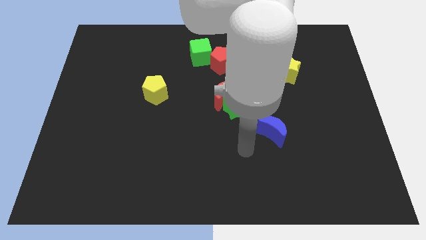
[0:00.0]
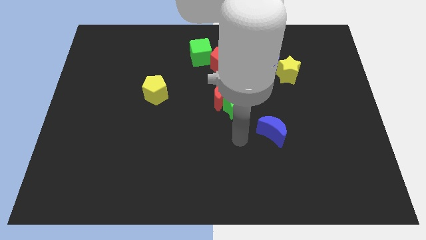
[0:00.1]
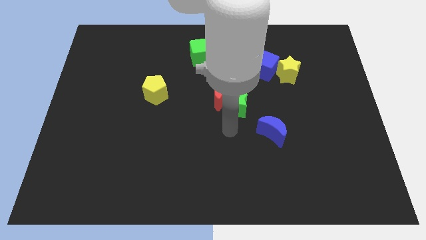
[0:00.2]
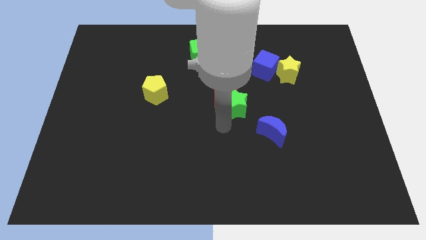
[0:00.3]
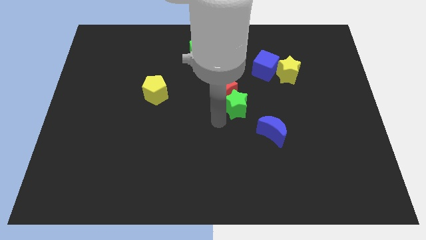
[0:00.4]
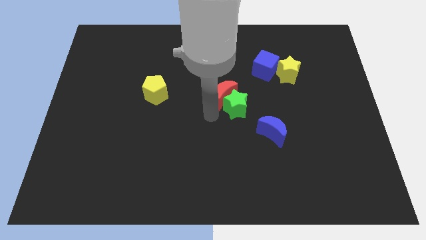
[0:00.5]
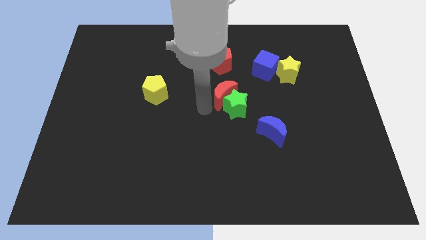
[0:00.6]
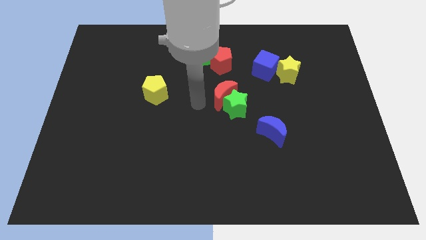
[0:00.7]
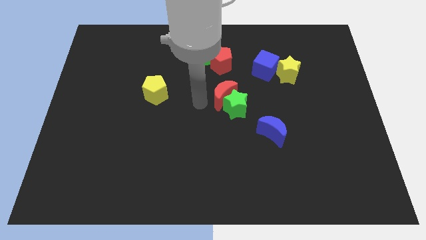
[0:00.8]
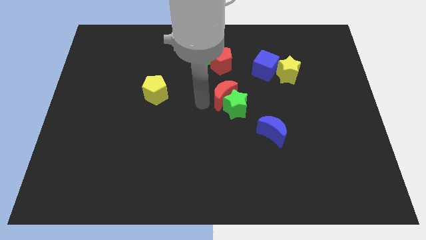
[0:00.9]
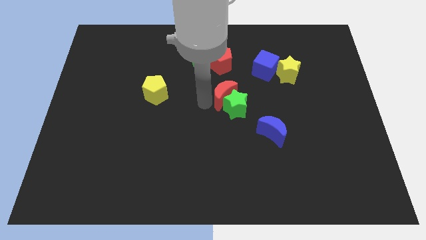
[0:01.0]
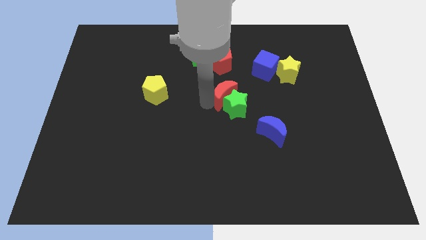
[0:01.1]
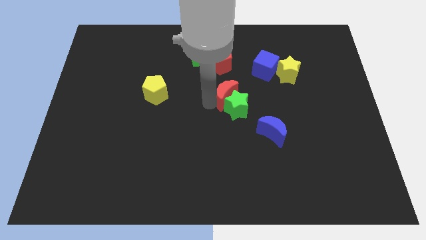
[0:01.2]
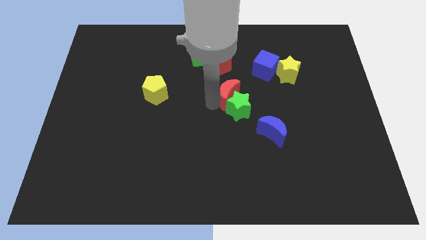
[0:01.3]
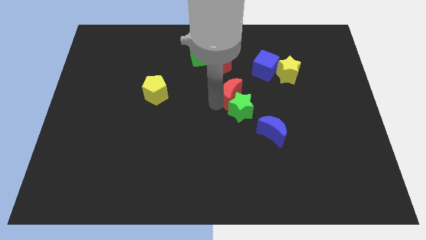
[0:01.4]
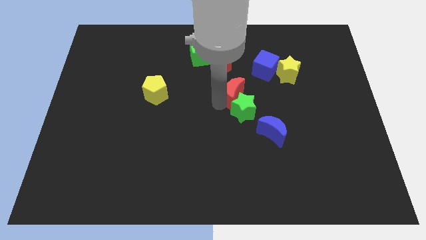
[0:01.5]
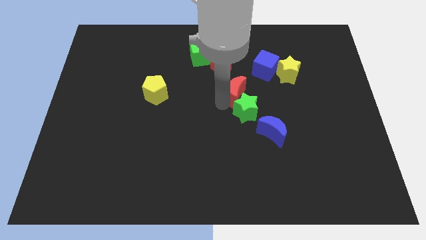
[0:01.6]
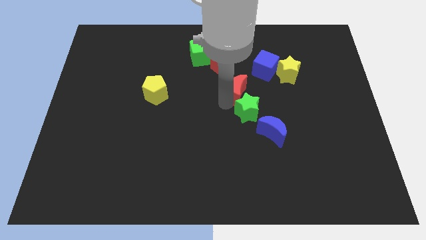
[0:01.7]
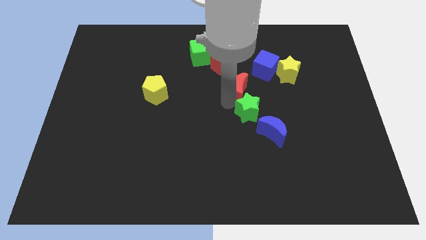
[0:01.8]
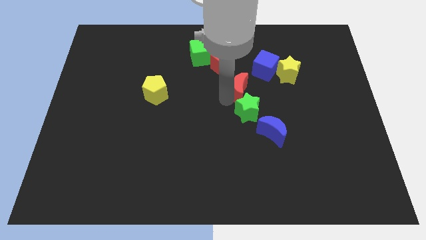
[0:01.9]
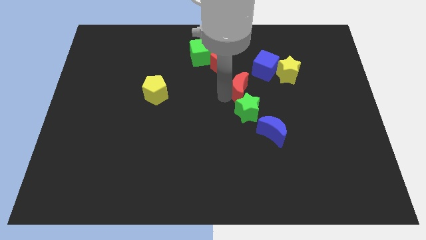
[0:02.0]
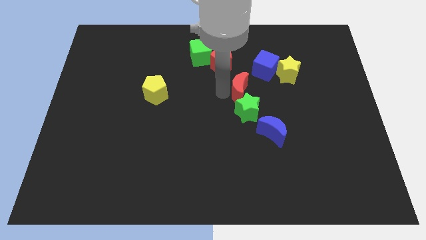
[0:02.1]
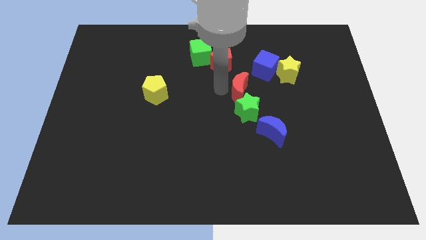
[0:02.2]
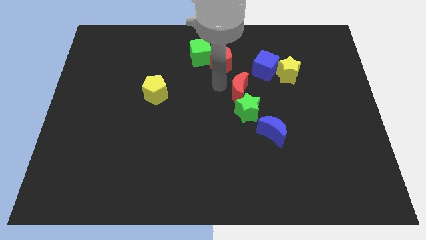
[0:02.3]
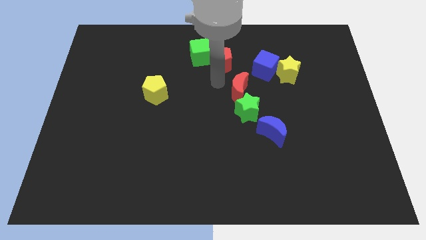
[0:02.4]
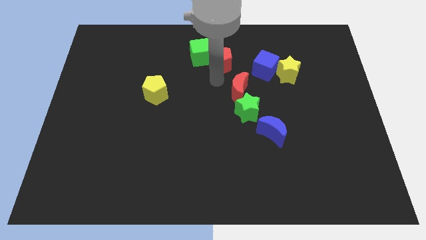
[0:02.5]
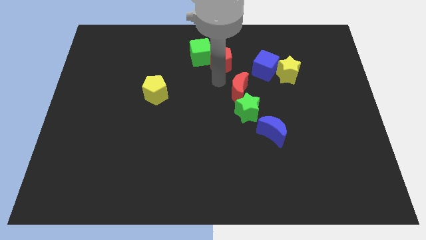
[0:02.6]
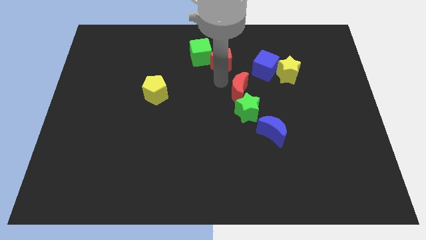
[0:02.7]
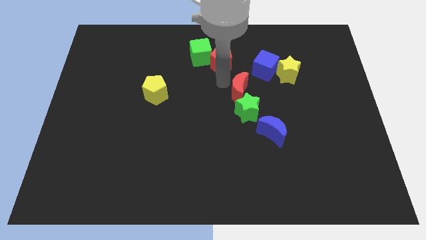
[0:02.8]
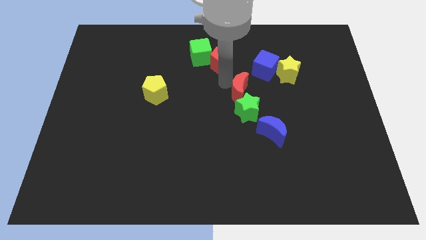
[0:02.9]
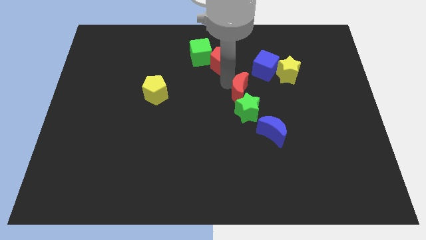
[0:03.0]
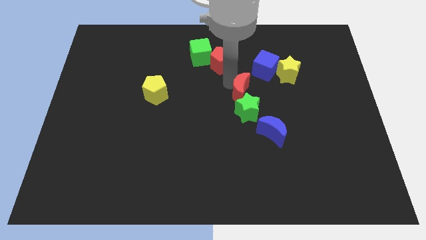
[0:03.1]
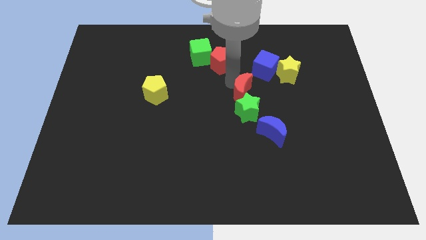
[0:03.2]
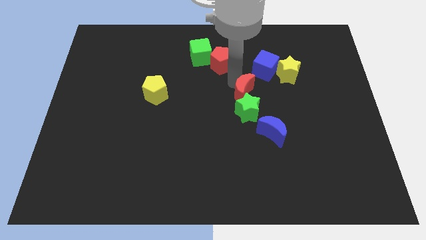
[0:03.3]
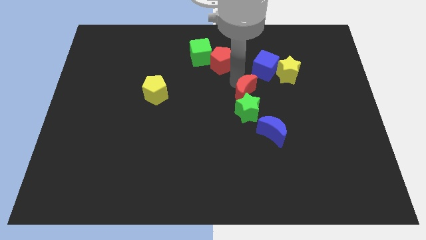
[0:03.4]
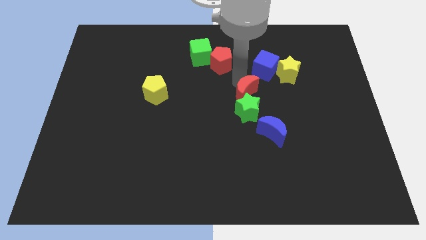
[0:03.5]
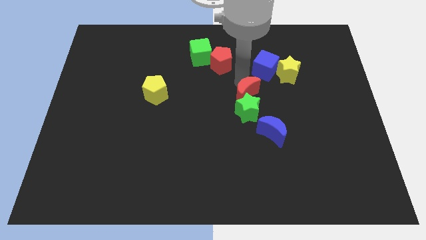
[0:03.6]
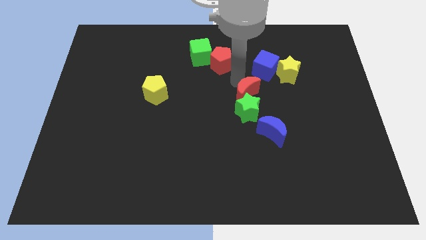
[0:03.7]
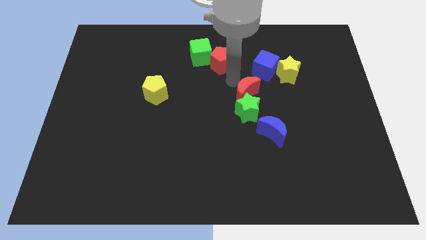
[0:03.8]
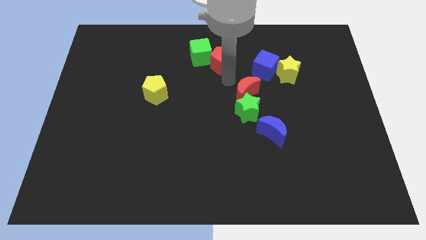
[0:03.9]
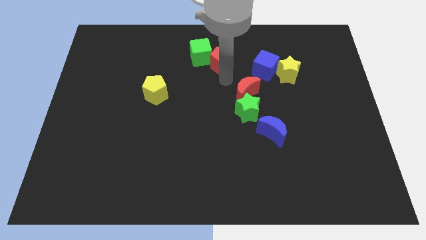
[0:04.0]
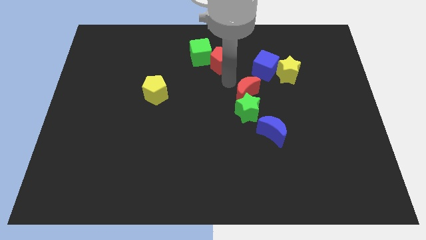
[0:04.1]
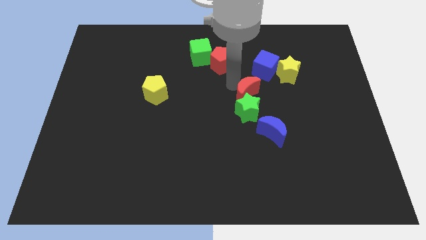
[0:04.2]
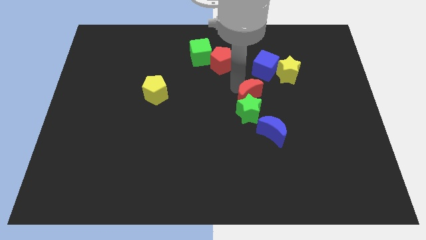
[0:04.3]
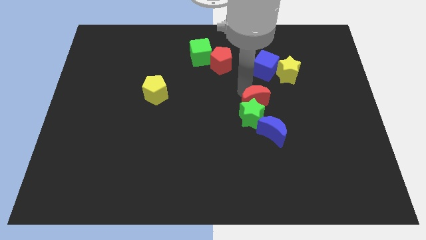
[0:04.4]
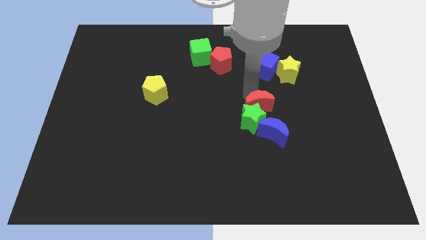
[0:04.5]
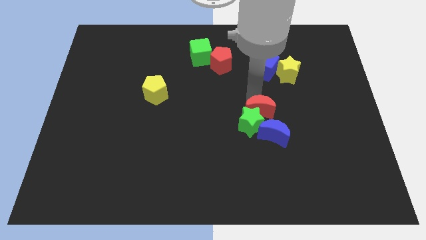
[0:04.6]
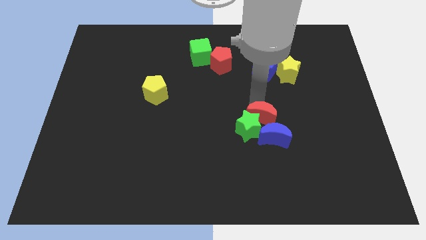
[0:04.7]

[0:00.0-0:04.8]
push the red moon to the blue moon

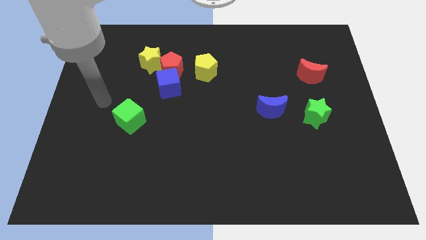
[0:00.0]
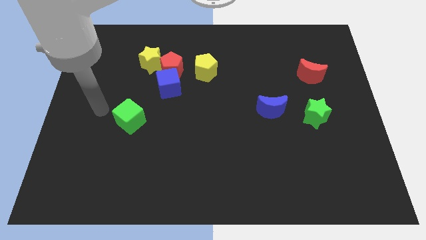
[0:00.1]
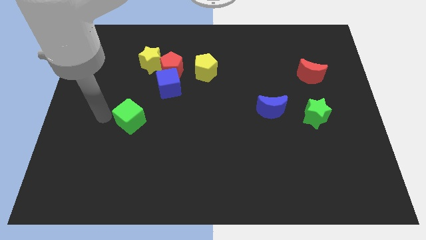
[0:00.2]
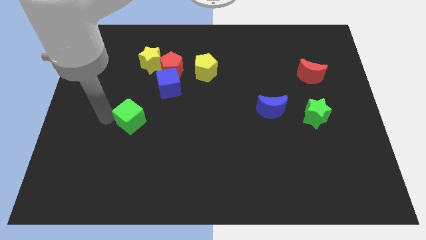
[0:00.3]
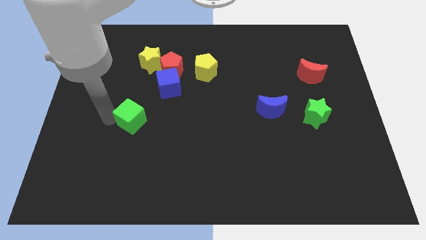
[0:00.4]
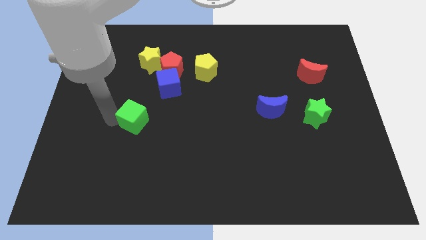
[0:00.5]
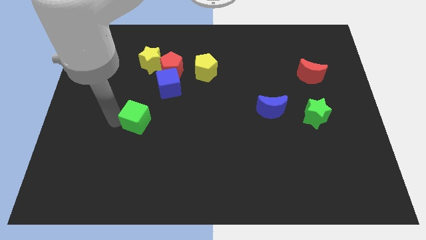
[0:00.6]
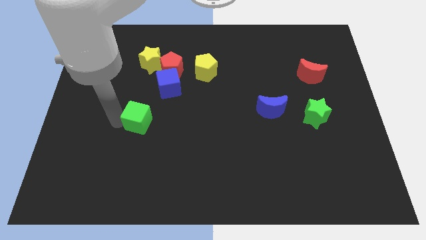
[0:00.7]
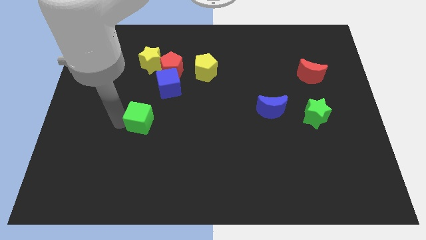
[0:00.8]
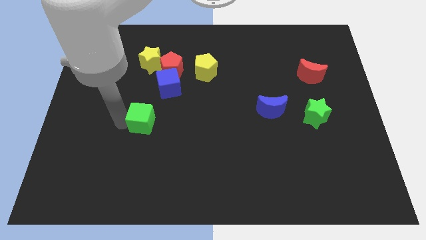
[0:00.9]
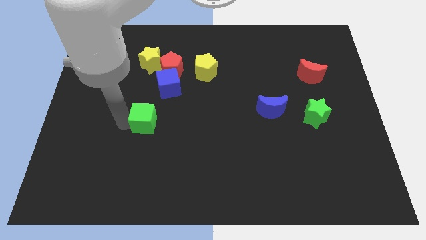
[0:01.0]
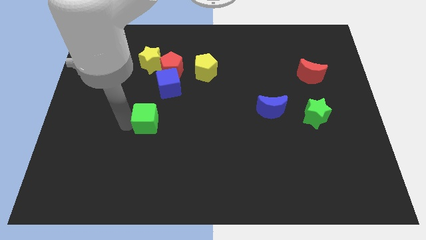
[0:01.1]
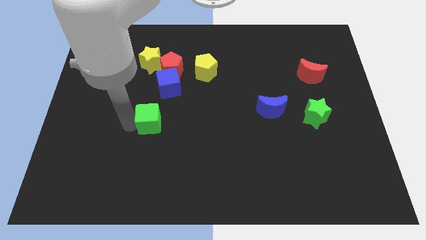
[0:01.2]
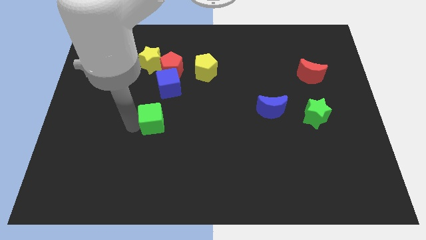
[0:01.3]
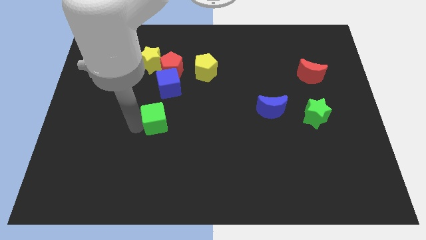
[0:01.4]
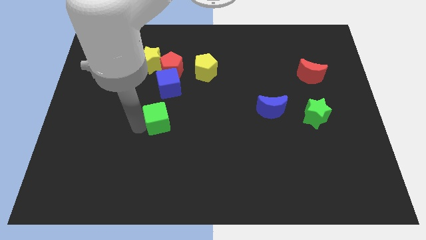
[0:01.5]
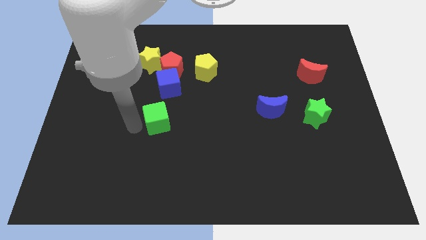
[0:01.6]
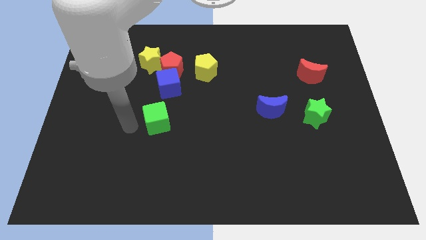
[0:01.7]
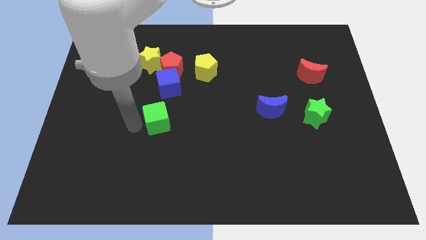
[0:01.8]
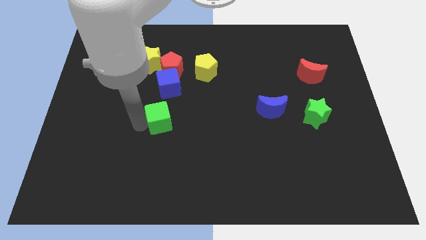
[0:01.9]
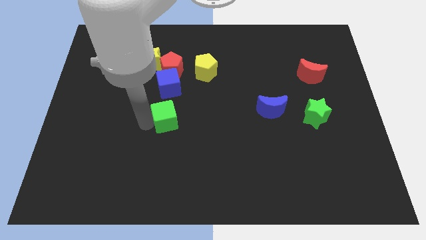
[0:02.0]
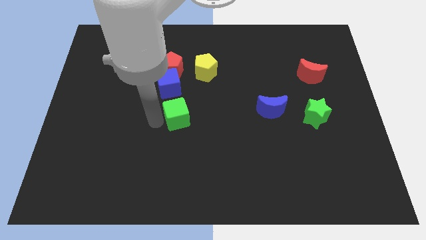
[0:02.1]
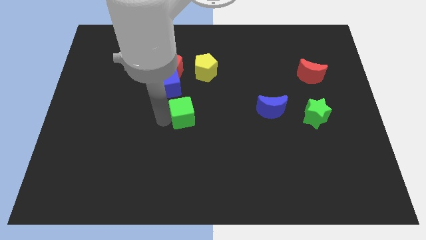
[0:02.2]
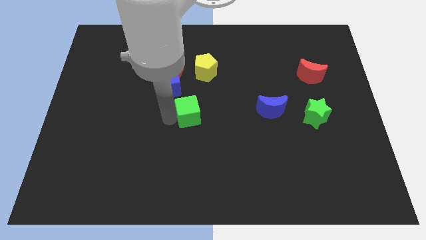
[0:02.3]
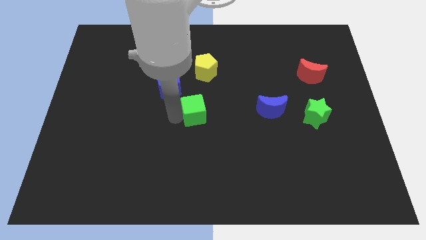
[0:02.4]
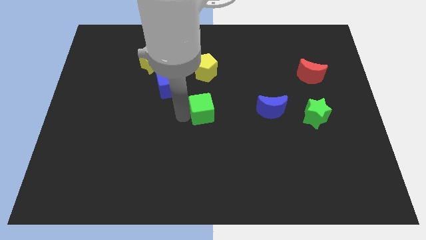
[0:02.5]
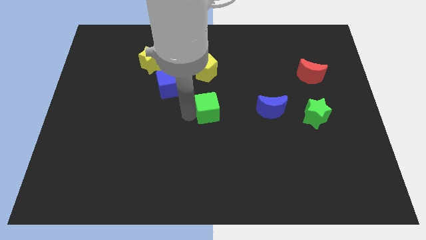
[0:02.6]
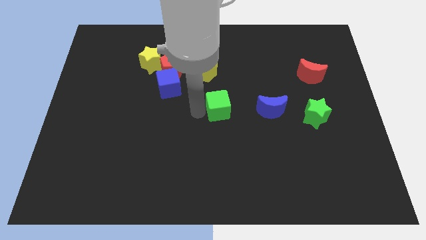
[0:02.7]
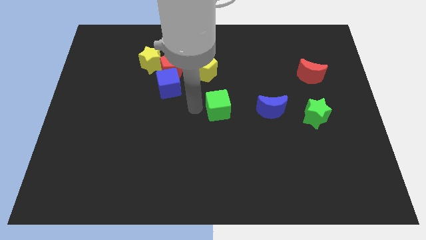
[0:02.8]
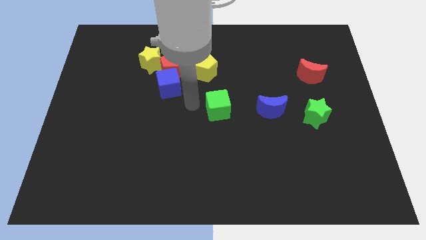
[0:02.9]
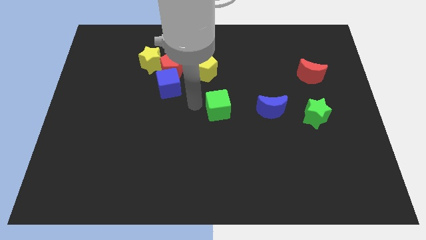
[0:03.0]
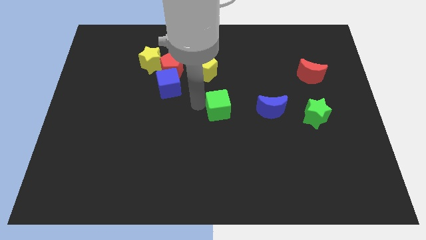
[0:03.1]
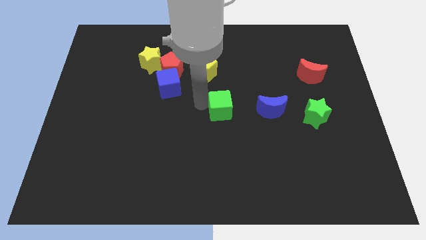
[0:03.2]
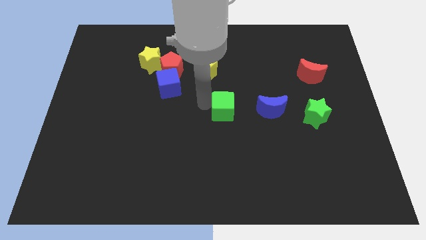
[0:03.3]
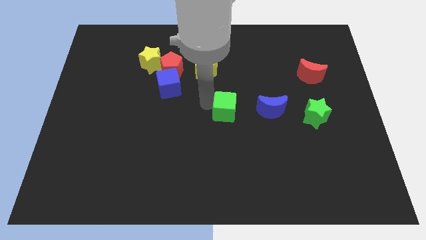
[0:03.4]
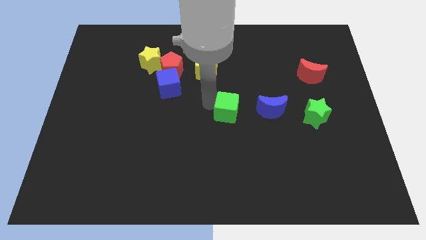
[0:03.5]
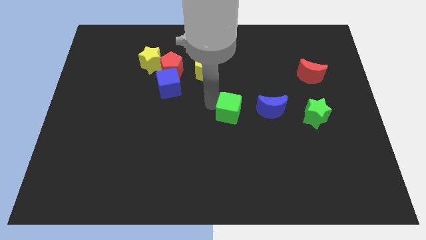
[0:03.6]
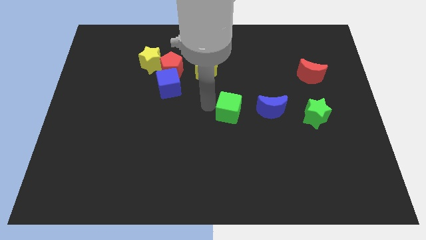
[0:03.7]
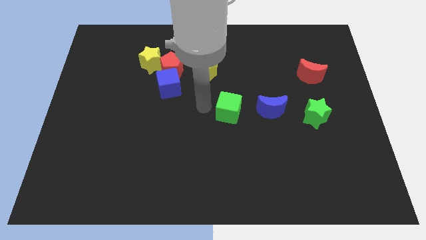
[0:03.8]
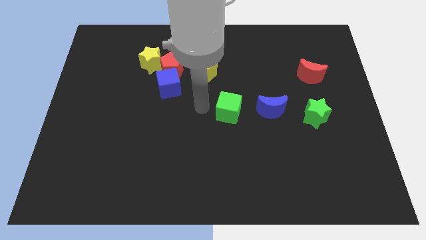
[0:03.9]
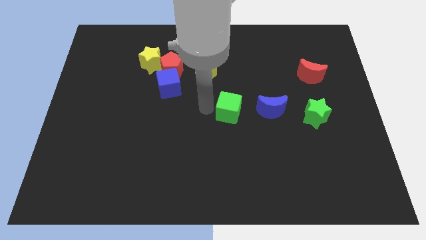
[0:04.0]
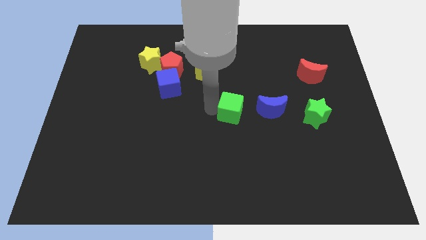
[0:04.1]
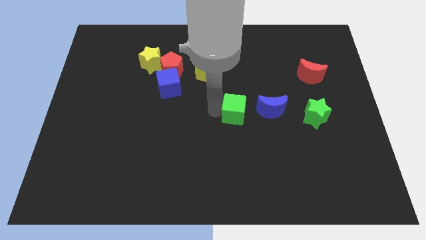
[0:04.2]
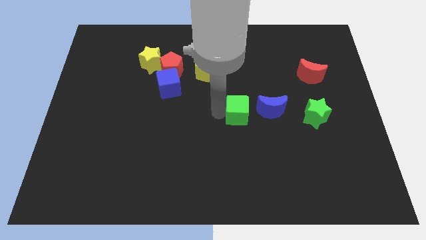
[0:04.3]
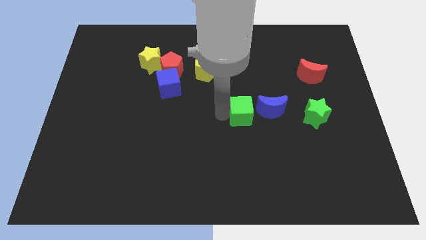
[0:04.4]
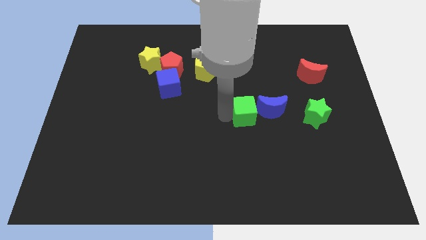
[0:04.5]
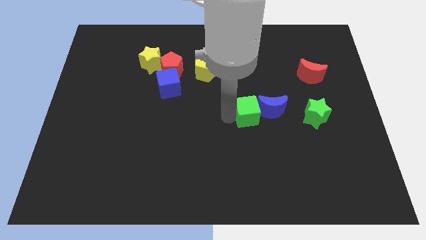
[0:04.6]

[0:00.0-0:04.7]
put the green cube close to the blue moon
